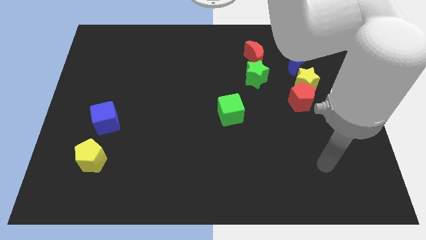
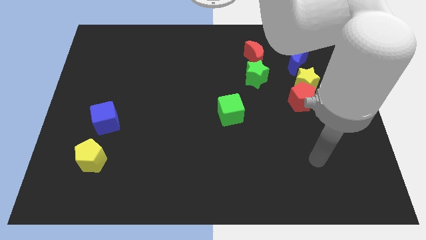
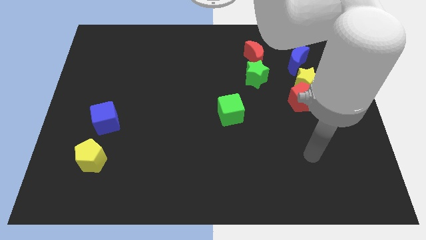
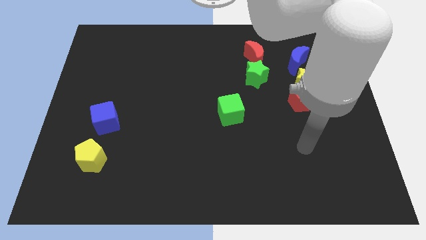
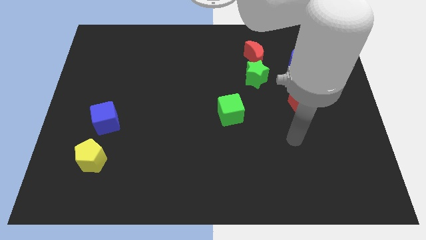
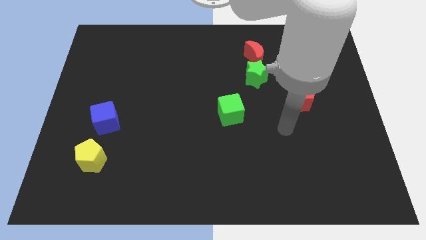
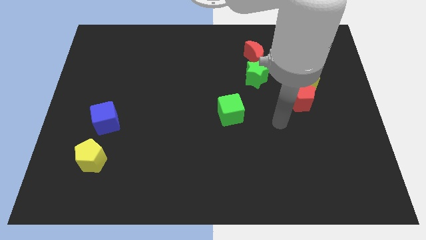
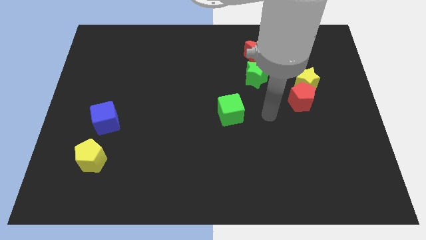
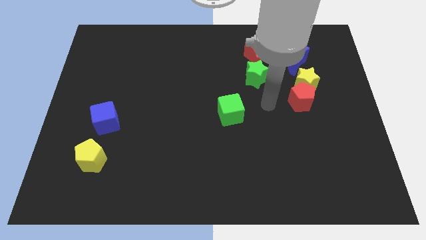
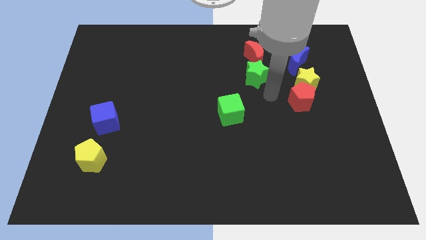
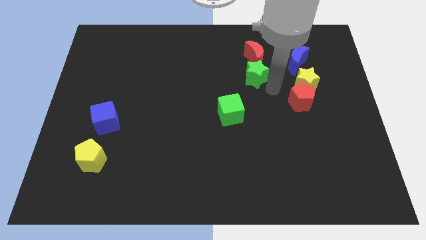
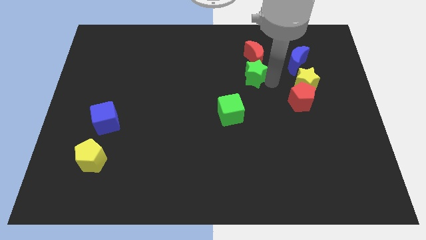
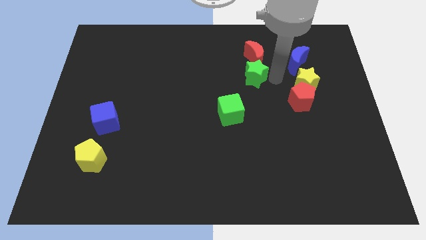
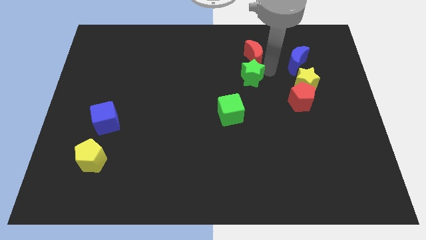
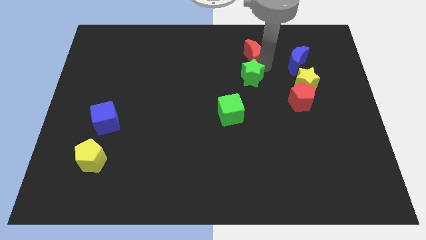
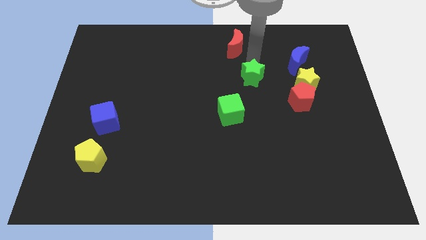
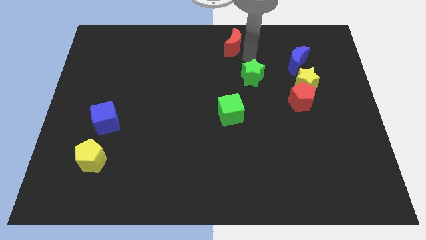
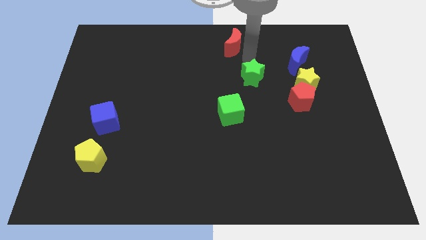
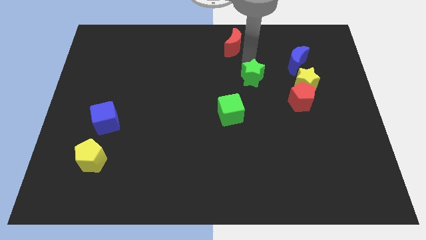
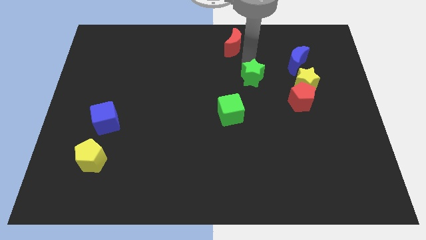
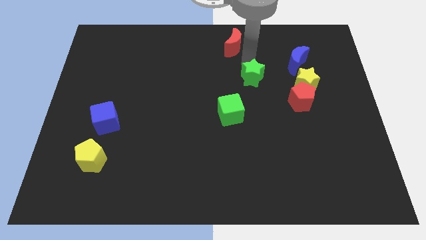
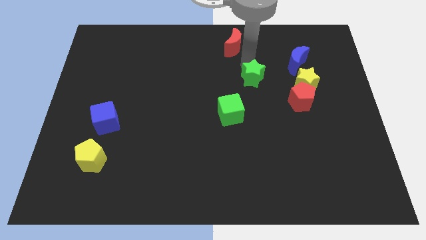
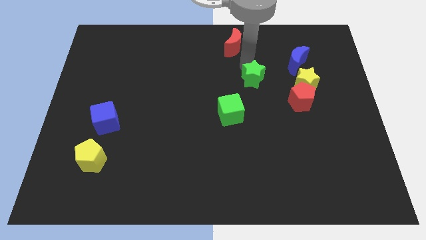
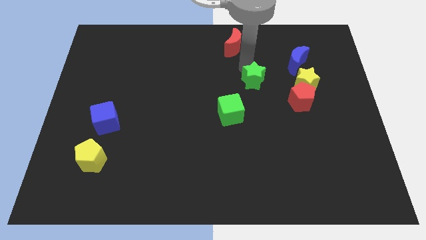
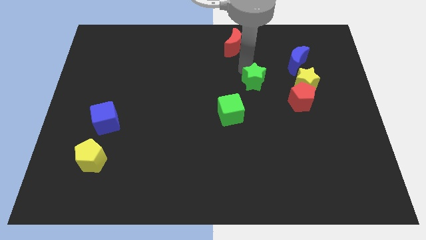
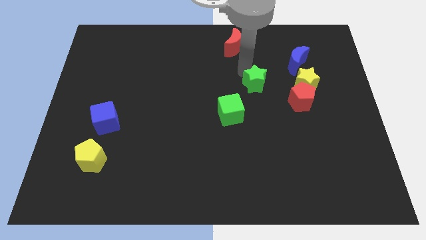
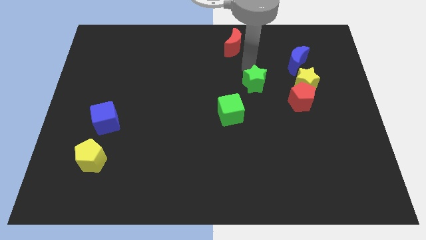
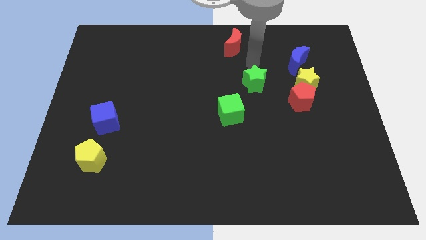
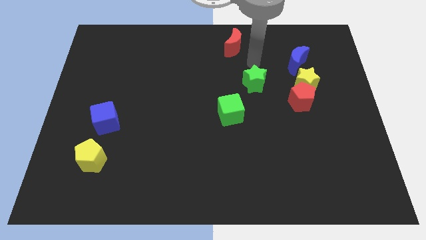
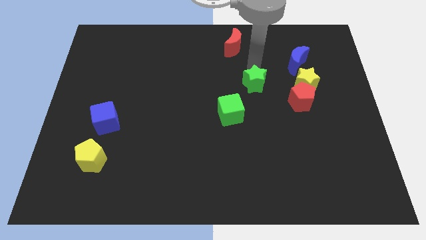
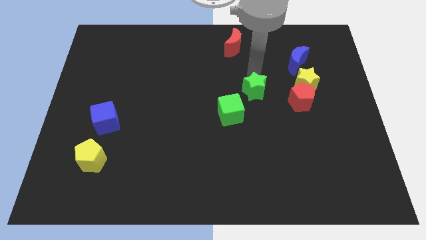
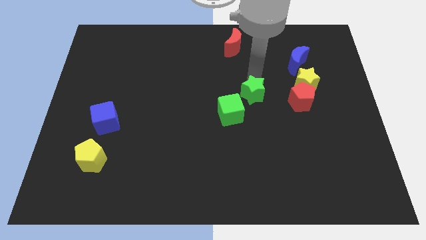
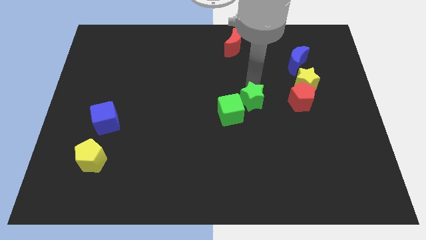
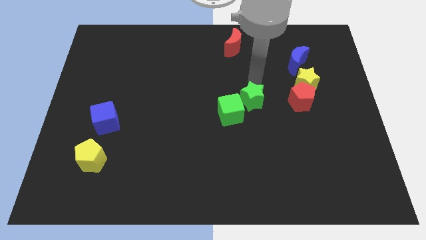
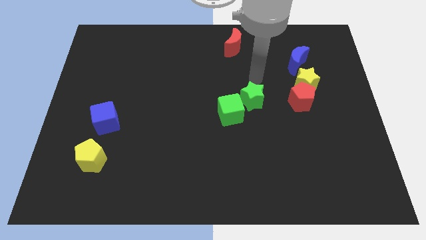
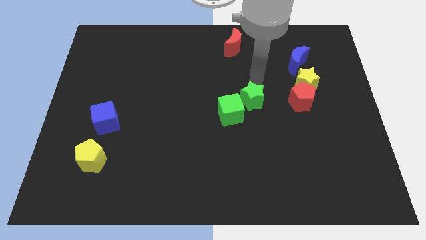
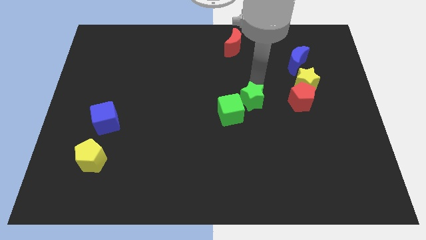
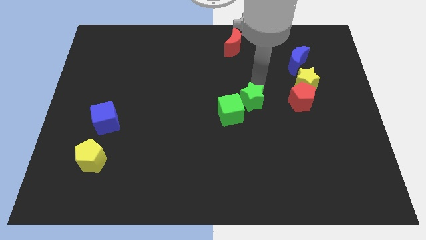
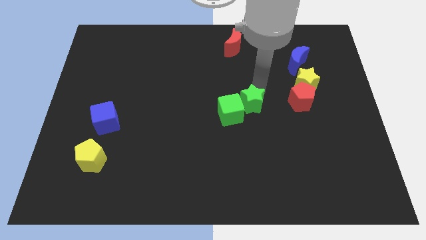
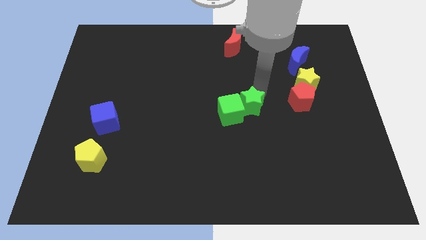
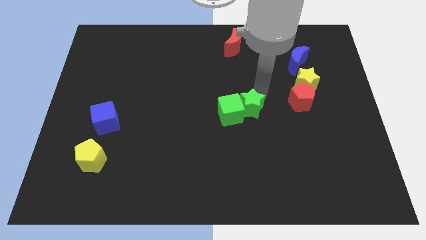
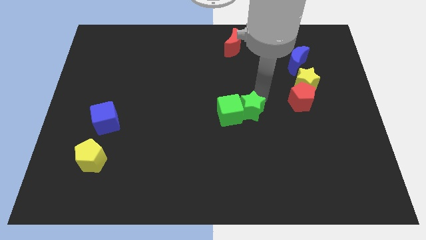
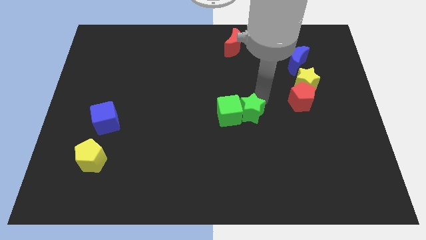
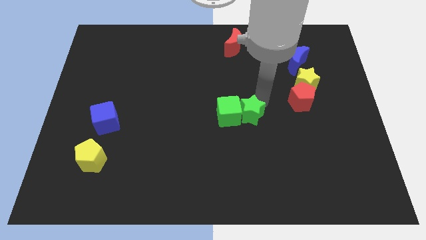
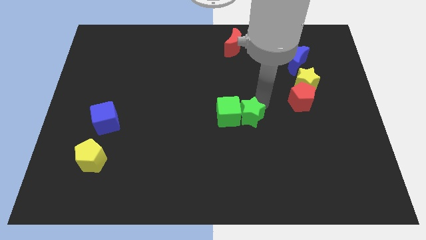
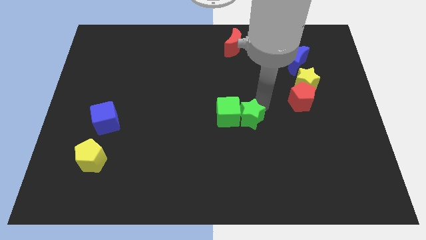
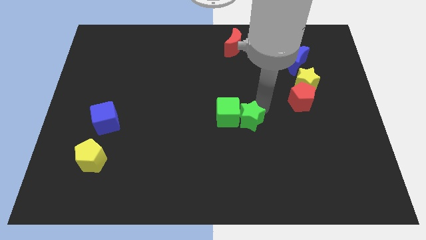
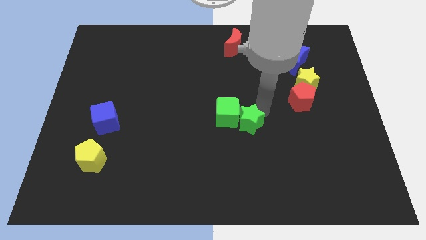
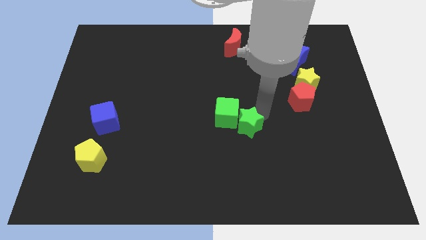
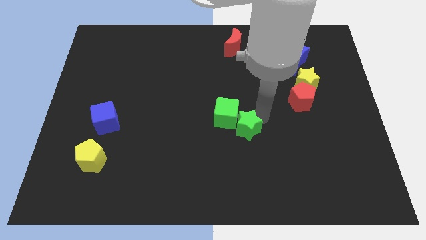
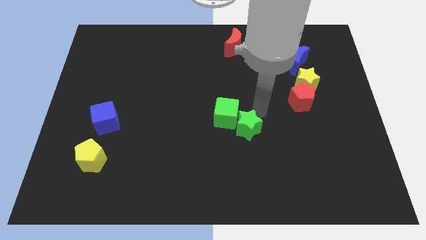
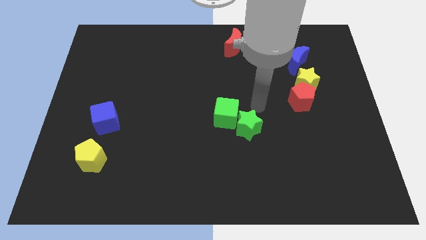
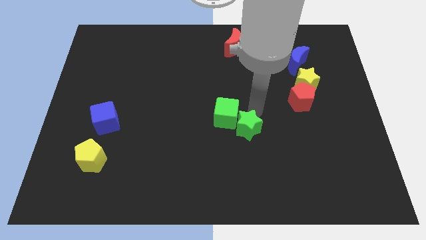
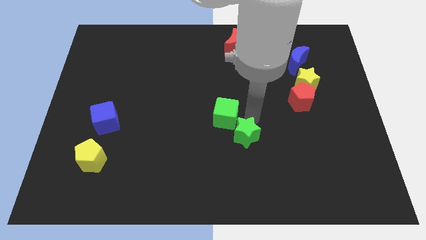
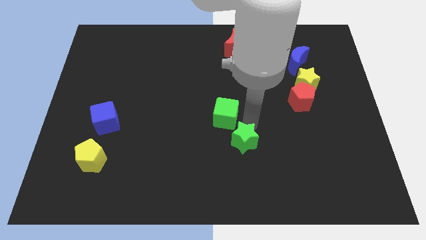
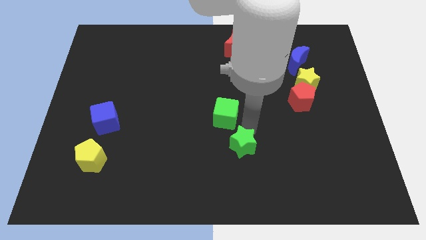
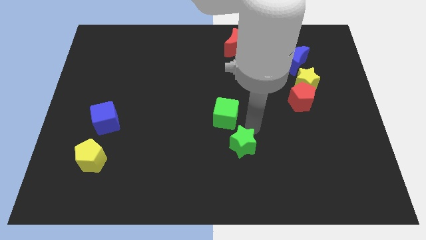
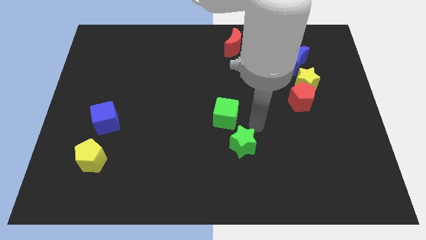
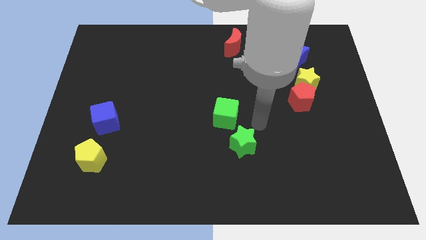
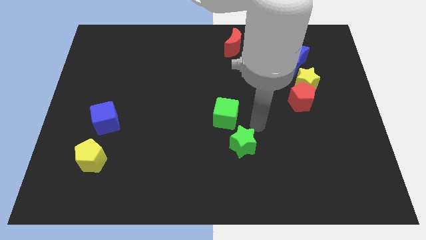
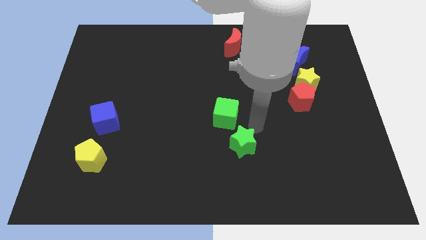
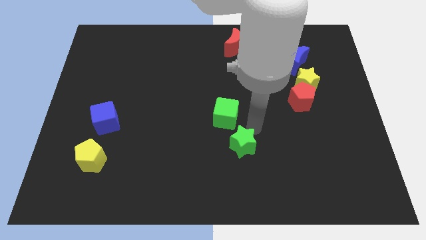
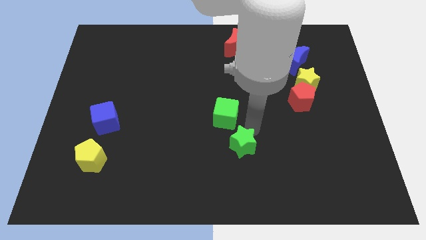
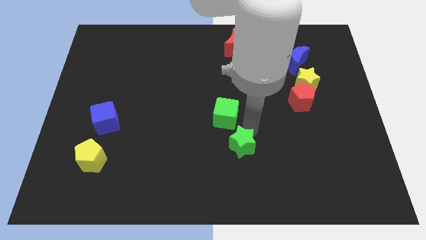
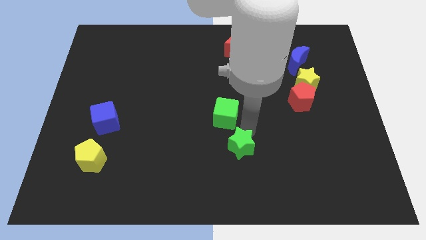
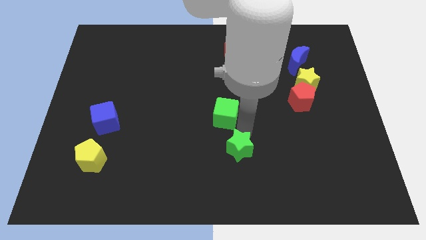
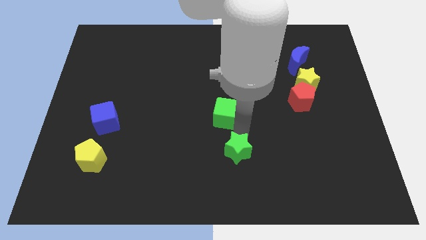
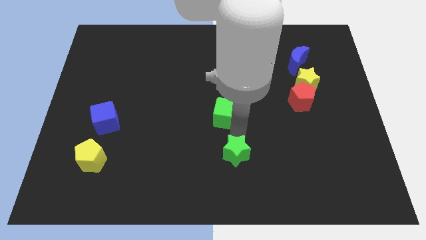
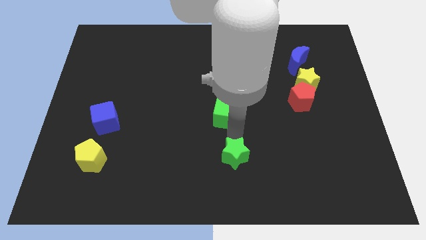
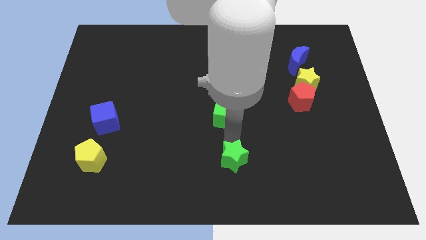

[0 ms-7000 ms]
slide the green star to the bottom side
